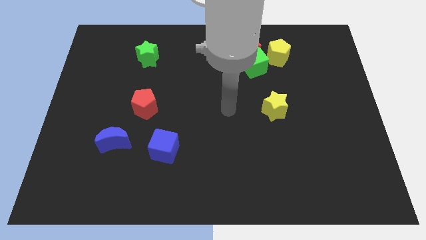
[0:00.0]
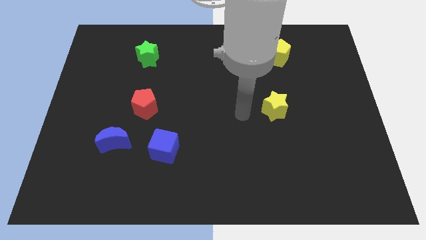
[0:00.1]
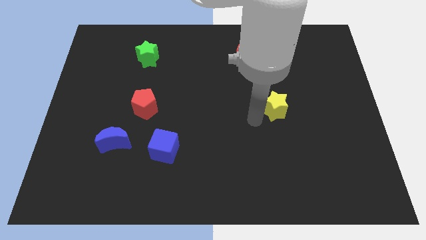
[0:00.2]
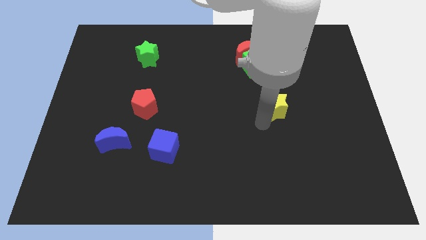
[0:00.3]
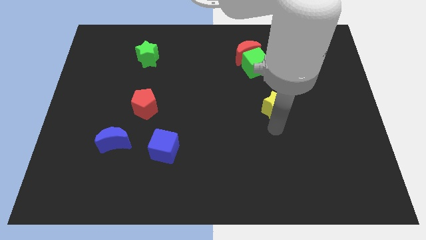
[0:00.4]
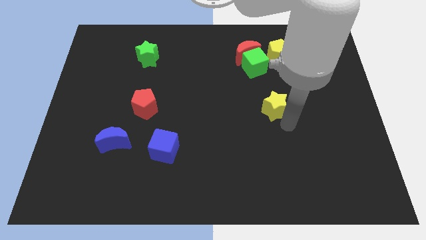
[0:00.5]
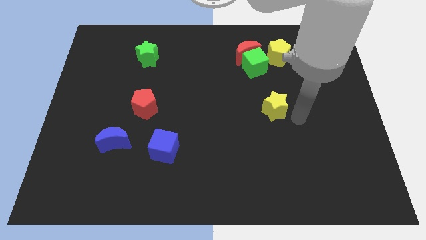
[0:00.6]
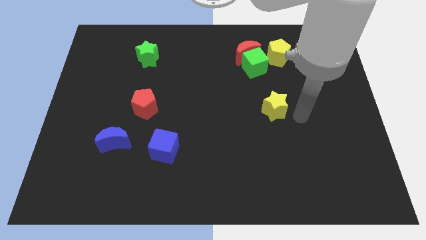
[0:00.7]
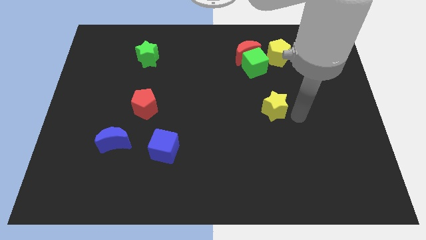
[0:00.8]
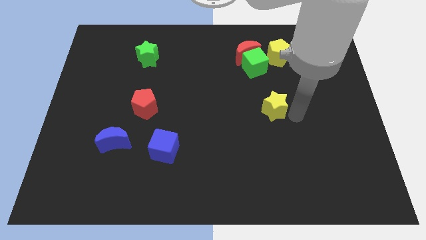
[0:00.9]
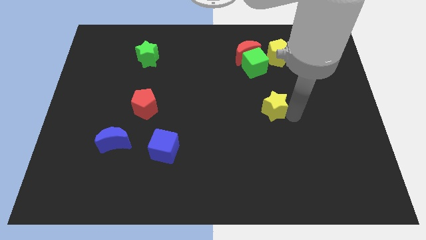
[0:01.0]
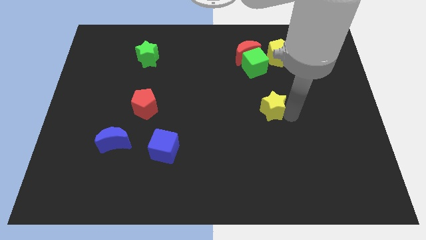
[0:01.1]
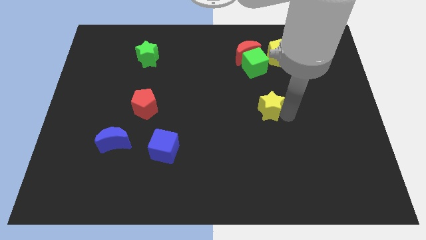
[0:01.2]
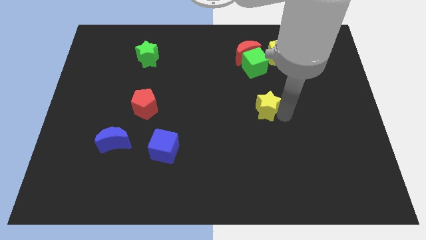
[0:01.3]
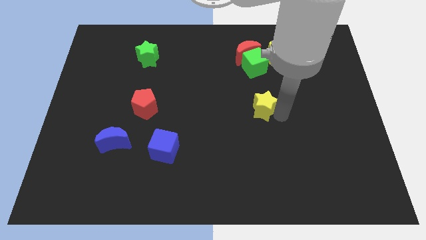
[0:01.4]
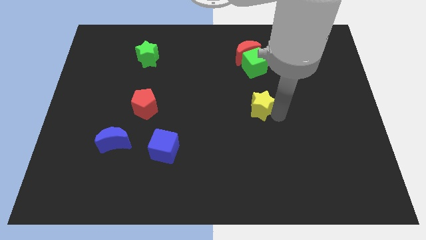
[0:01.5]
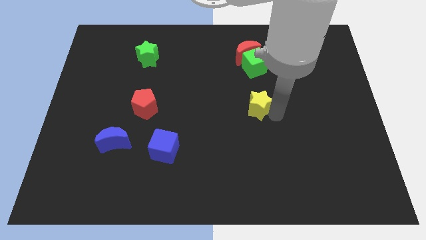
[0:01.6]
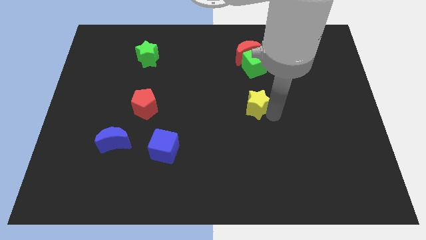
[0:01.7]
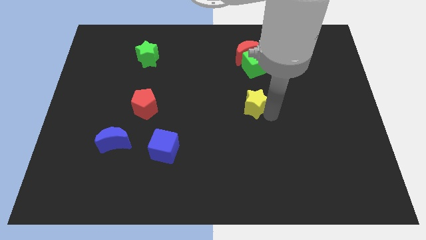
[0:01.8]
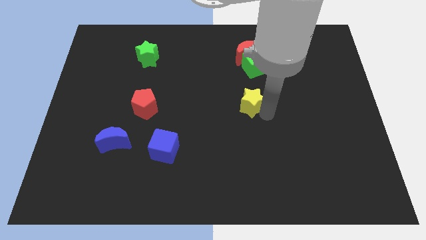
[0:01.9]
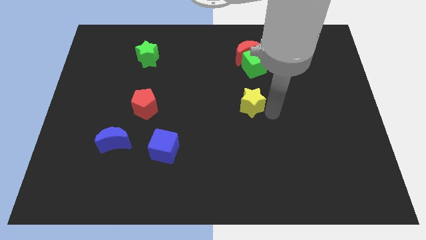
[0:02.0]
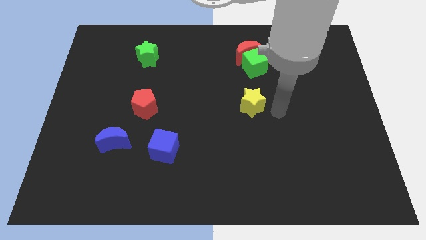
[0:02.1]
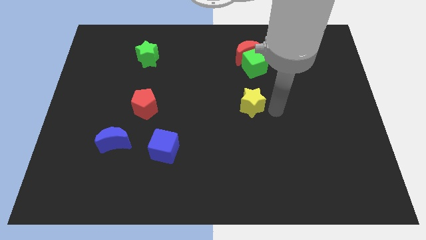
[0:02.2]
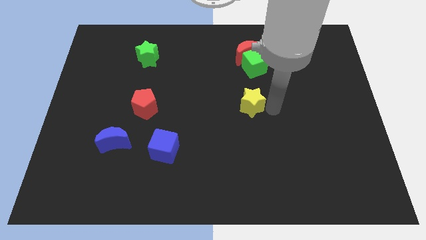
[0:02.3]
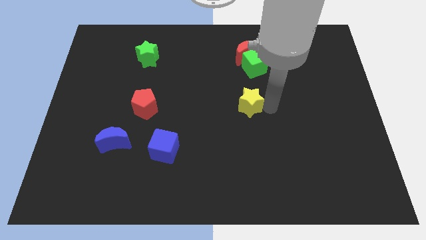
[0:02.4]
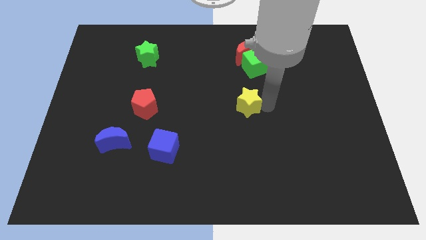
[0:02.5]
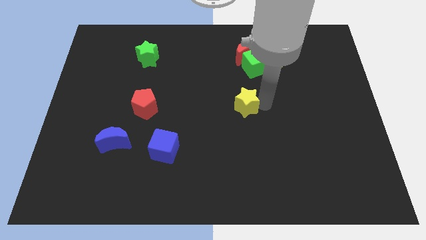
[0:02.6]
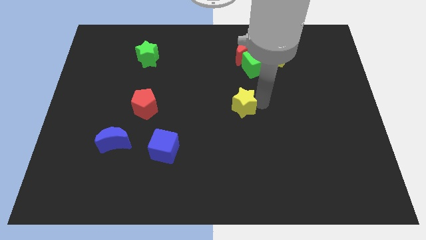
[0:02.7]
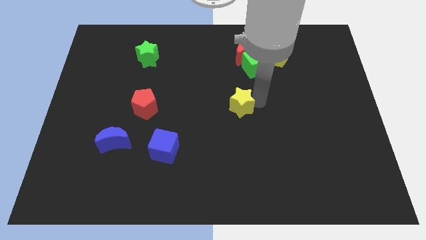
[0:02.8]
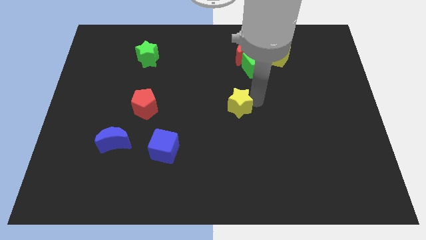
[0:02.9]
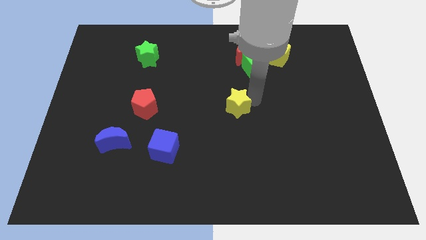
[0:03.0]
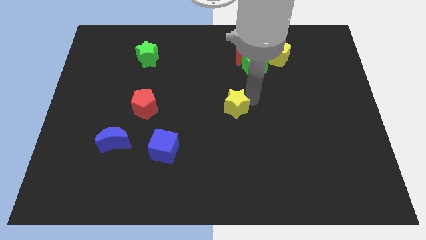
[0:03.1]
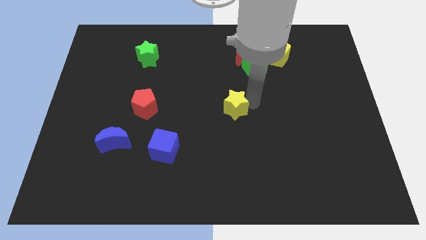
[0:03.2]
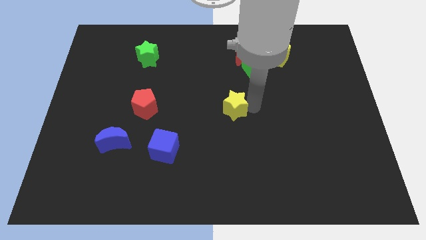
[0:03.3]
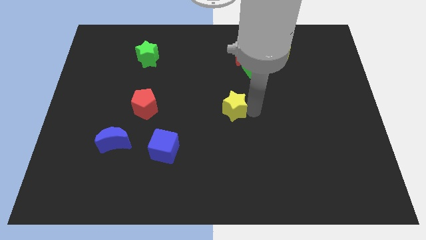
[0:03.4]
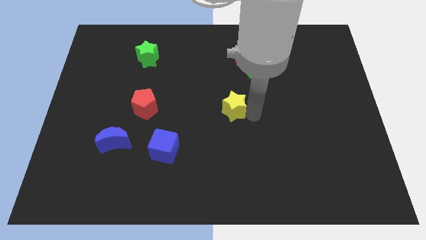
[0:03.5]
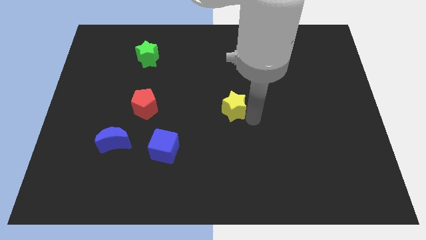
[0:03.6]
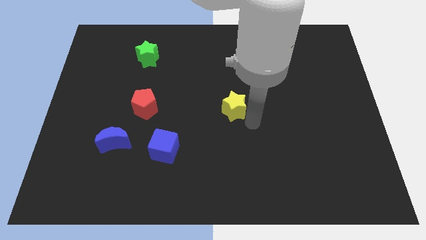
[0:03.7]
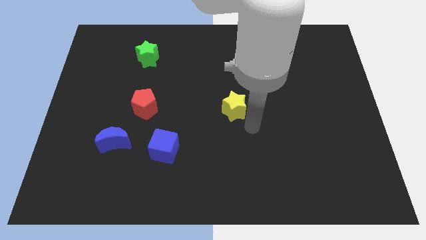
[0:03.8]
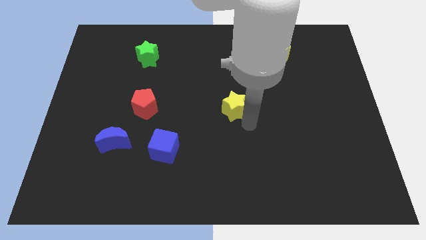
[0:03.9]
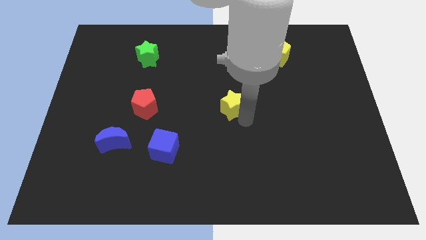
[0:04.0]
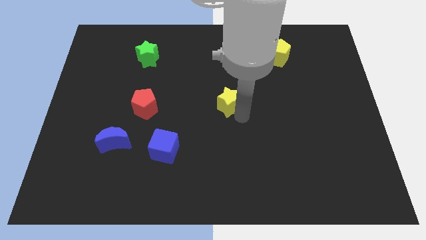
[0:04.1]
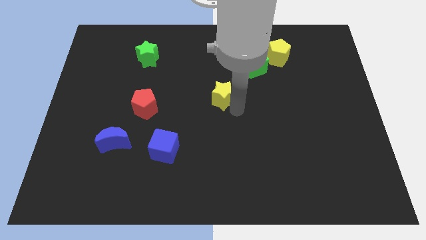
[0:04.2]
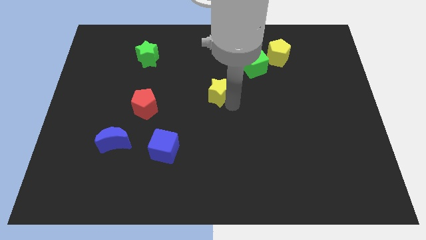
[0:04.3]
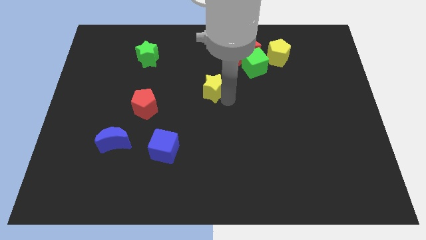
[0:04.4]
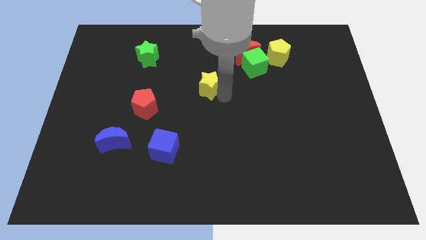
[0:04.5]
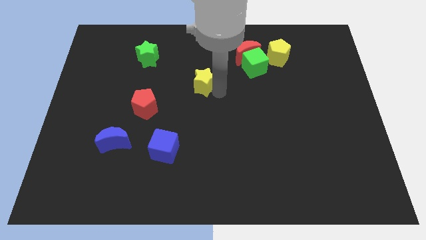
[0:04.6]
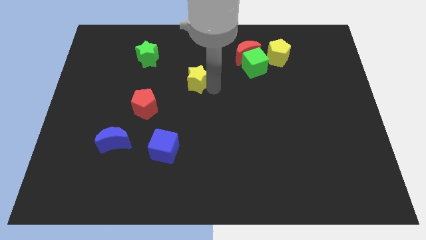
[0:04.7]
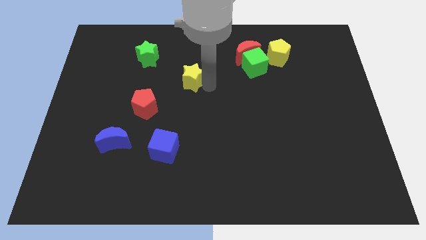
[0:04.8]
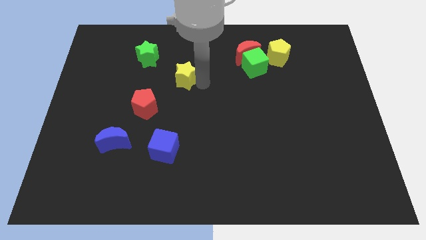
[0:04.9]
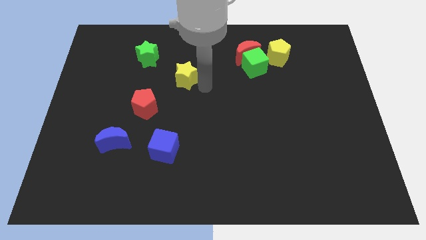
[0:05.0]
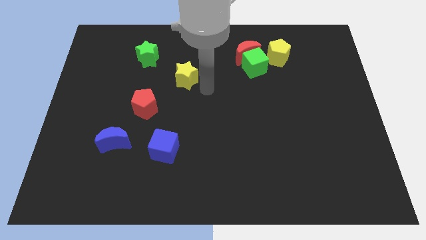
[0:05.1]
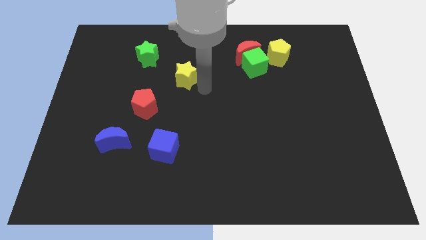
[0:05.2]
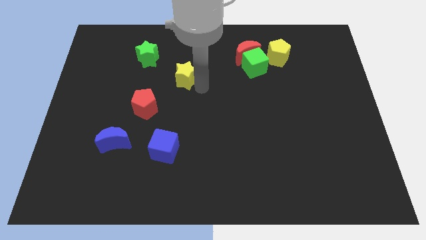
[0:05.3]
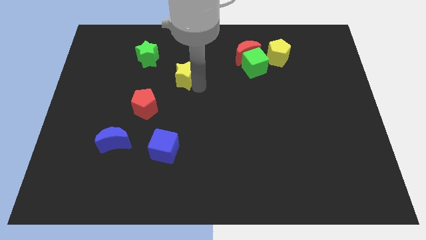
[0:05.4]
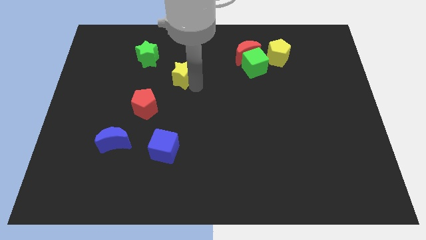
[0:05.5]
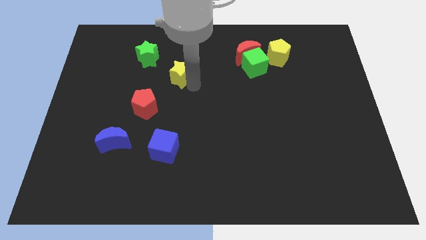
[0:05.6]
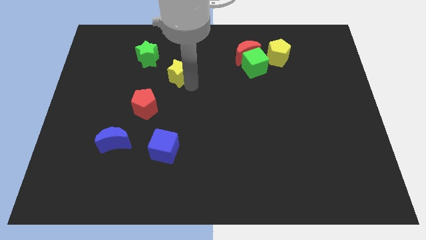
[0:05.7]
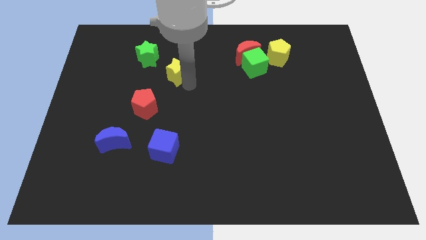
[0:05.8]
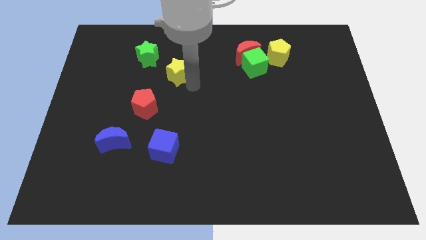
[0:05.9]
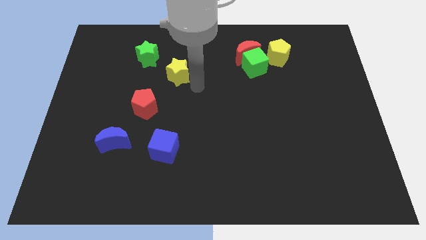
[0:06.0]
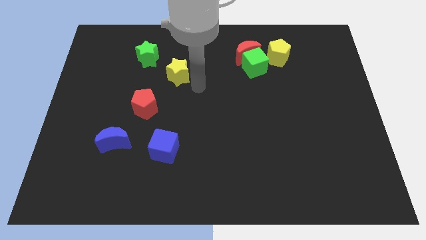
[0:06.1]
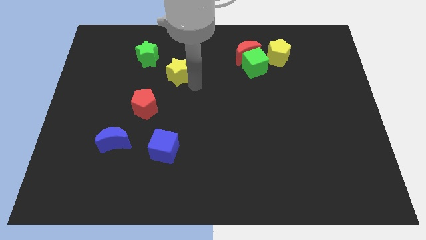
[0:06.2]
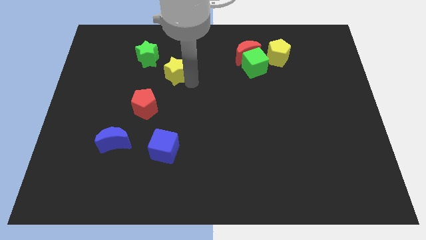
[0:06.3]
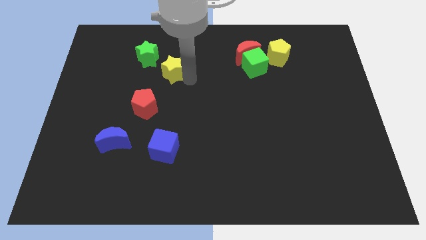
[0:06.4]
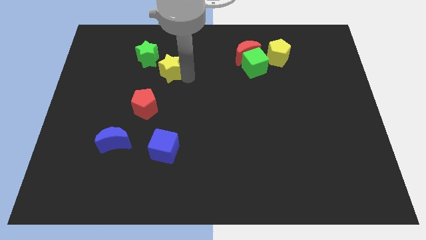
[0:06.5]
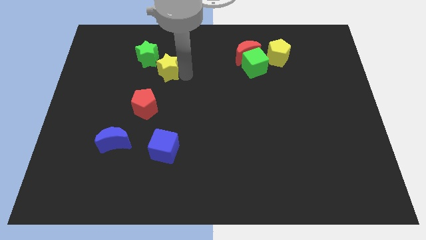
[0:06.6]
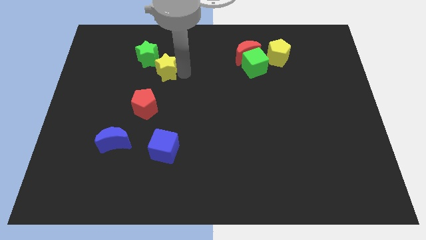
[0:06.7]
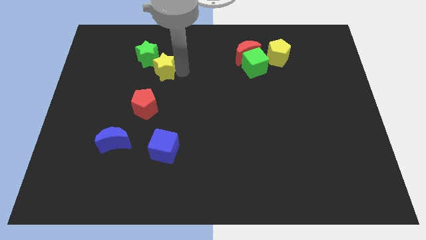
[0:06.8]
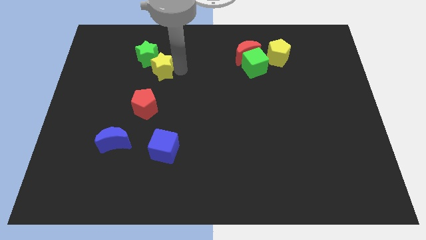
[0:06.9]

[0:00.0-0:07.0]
push the yellow star close to the green star

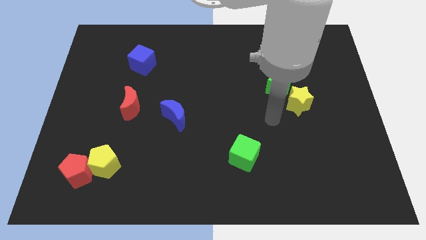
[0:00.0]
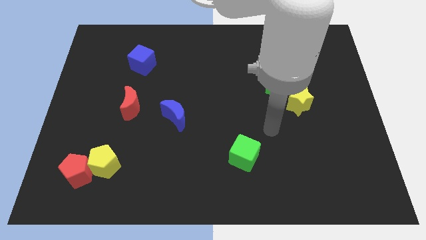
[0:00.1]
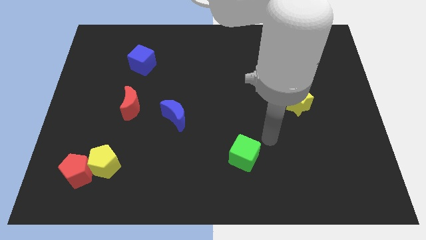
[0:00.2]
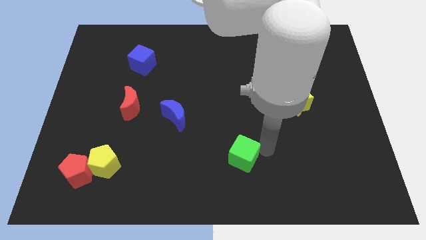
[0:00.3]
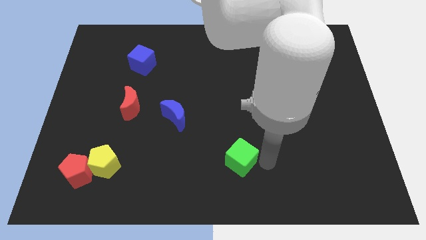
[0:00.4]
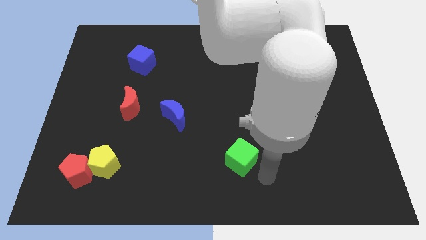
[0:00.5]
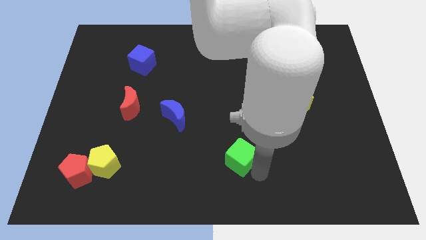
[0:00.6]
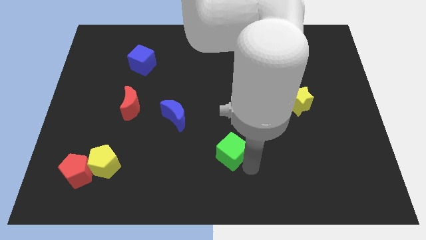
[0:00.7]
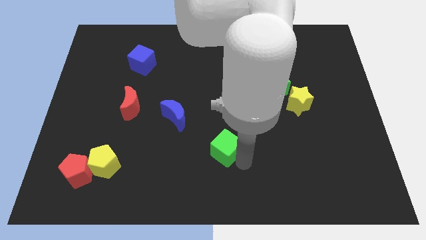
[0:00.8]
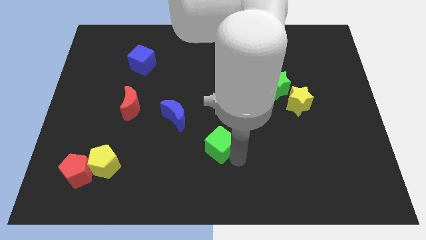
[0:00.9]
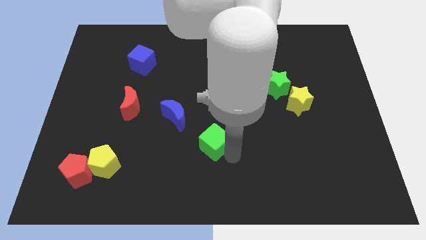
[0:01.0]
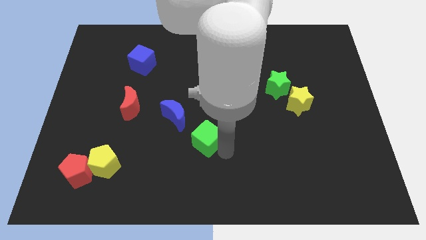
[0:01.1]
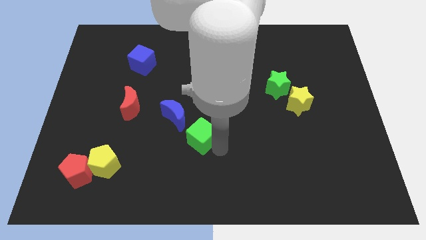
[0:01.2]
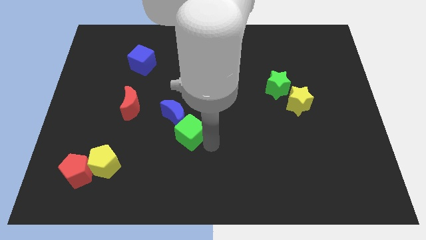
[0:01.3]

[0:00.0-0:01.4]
move the green cube towards the blue moon
